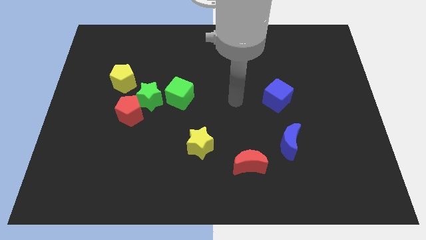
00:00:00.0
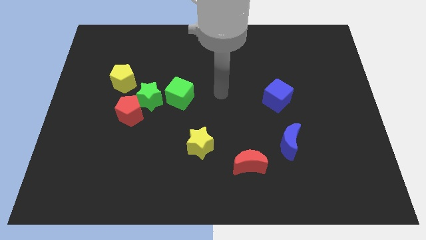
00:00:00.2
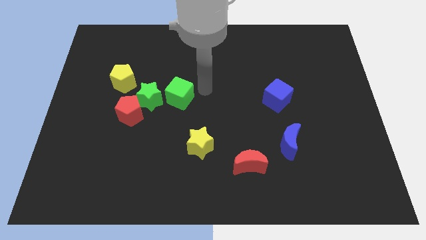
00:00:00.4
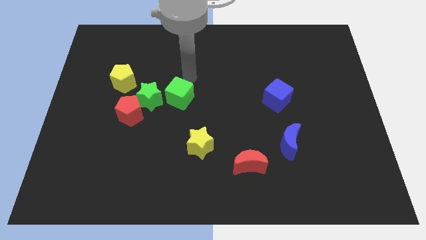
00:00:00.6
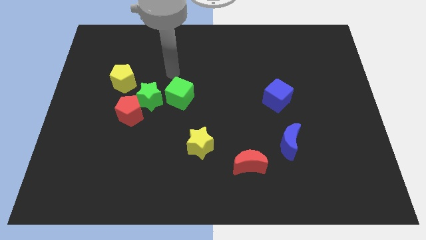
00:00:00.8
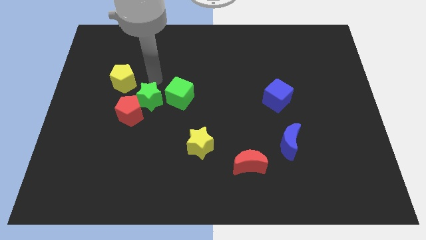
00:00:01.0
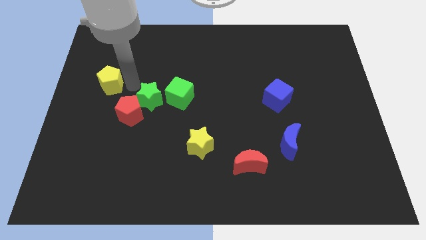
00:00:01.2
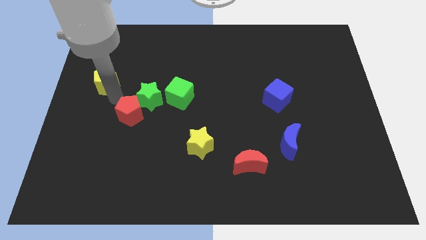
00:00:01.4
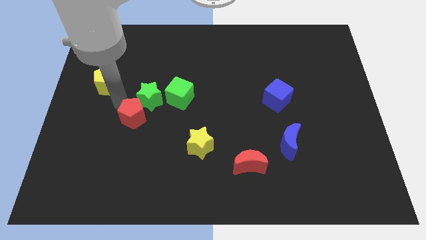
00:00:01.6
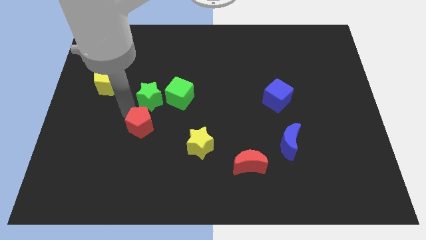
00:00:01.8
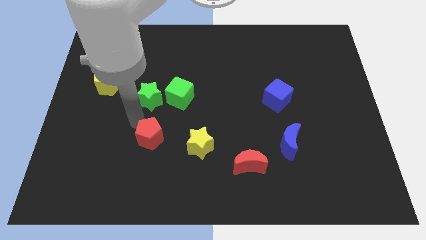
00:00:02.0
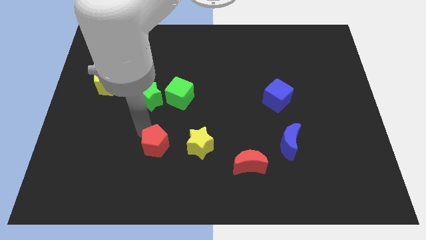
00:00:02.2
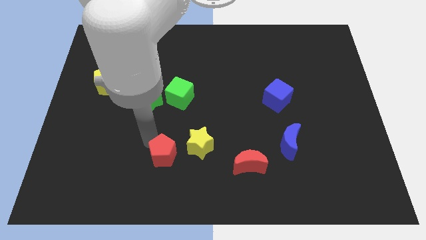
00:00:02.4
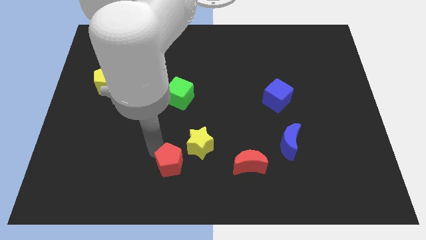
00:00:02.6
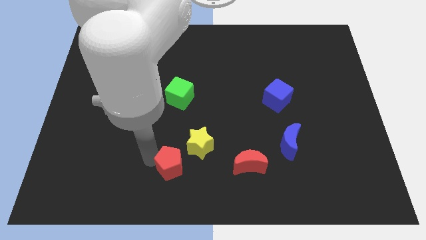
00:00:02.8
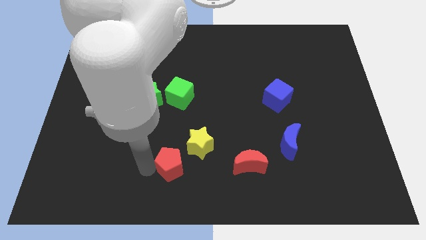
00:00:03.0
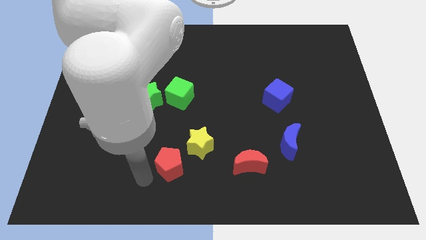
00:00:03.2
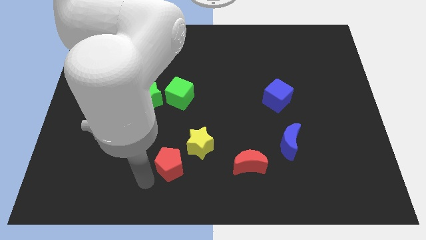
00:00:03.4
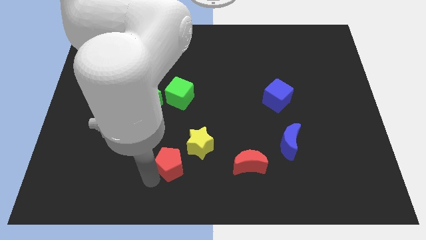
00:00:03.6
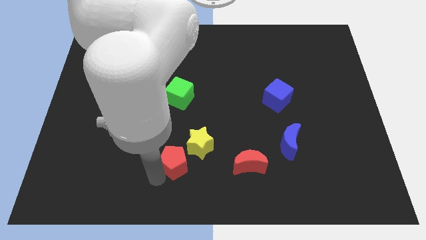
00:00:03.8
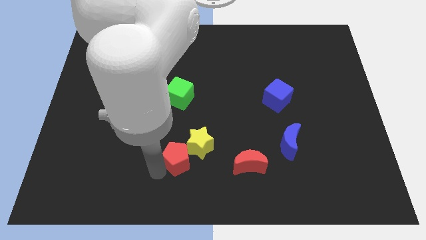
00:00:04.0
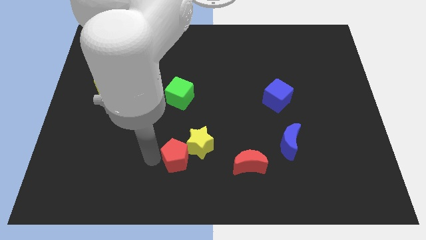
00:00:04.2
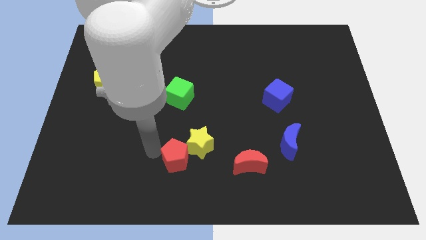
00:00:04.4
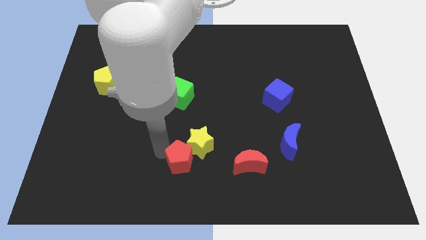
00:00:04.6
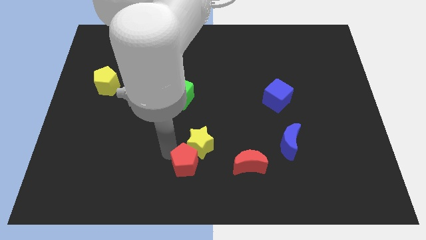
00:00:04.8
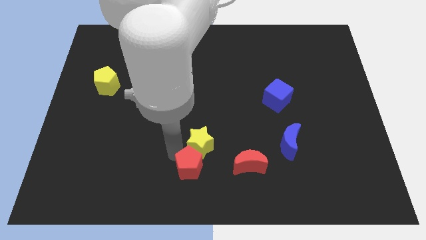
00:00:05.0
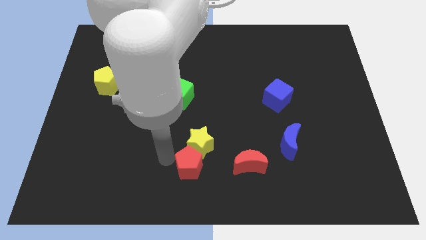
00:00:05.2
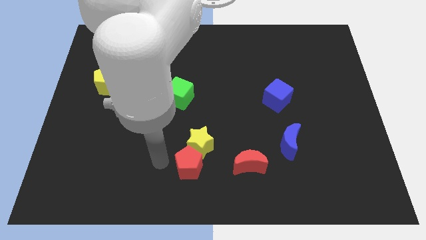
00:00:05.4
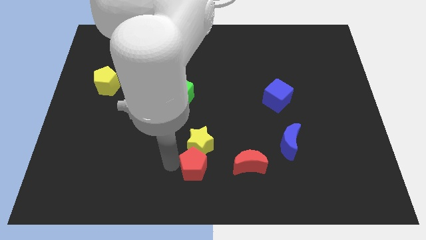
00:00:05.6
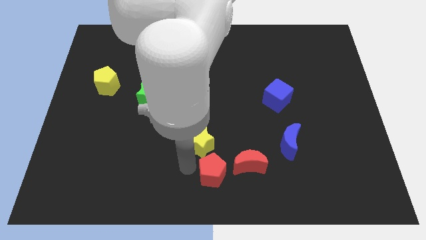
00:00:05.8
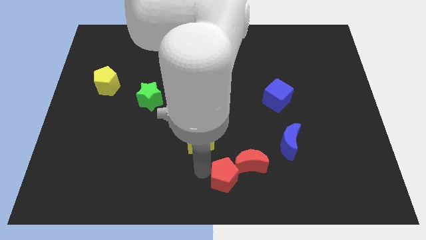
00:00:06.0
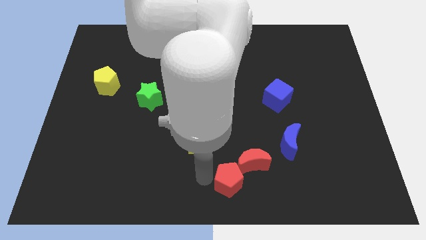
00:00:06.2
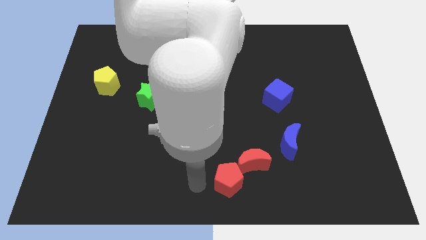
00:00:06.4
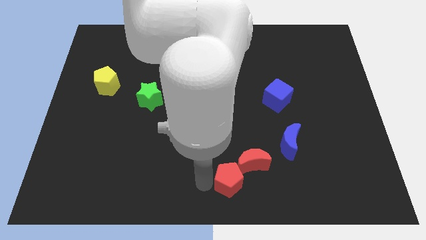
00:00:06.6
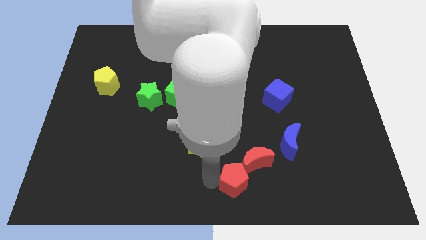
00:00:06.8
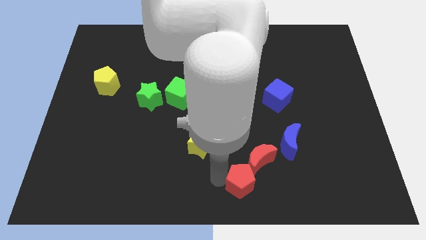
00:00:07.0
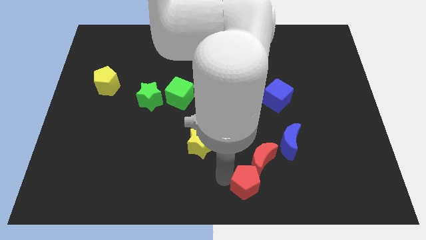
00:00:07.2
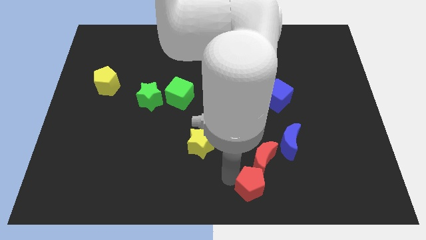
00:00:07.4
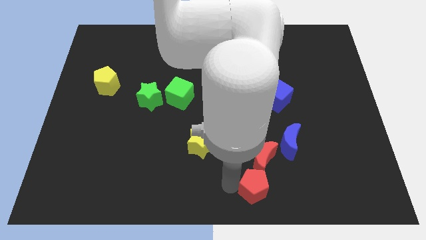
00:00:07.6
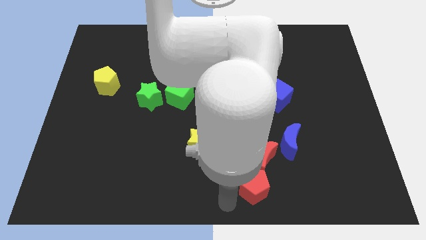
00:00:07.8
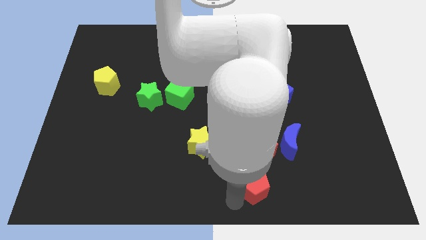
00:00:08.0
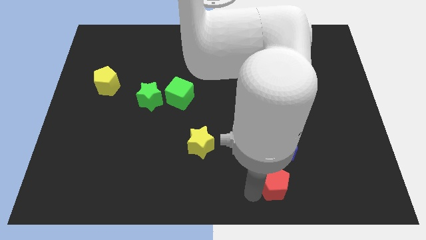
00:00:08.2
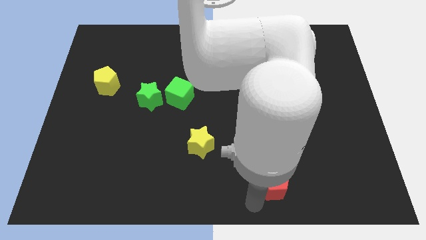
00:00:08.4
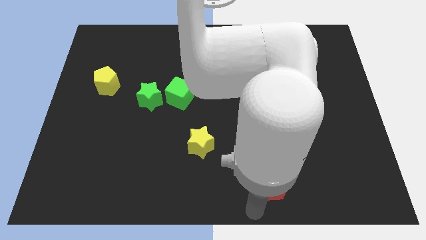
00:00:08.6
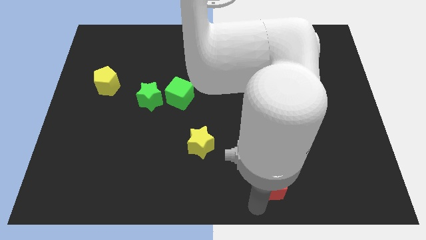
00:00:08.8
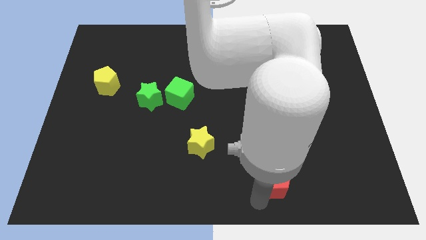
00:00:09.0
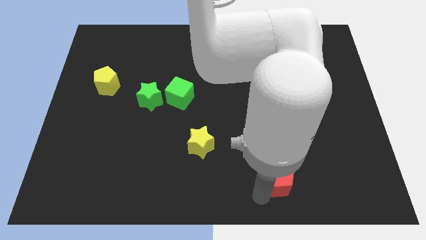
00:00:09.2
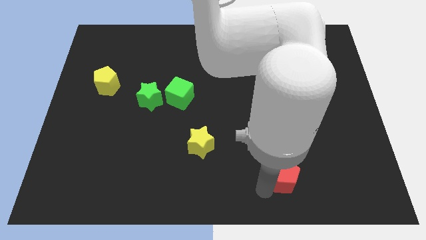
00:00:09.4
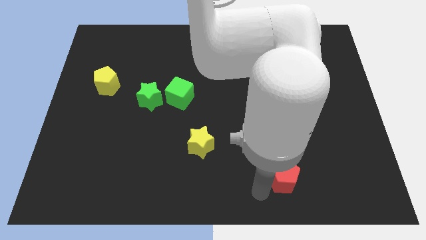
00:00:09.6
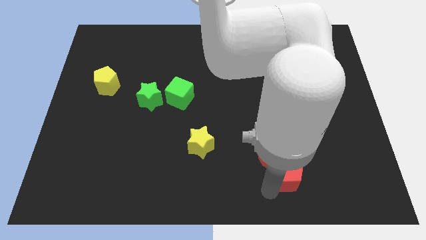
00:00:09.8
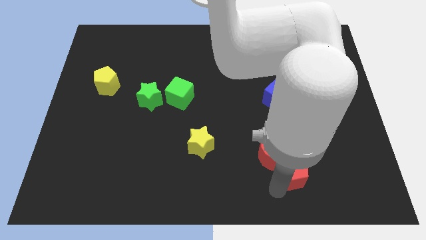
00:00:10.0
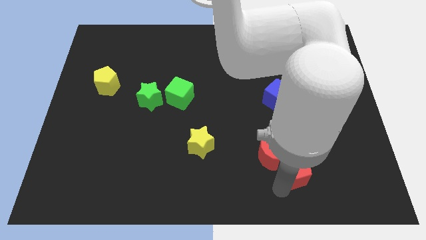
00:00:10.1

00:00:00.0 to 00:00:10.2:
move the red pentagon diagonally down and to the right of the blue moon

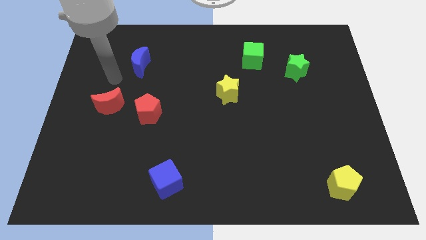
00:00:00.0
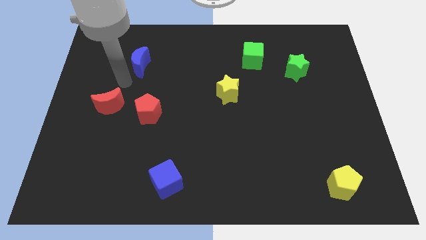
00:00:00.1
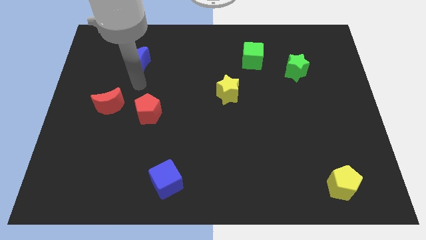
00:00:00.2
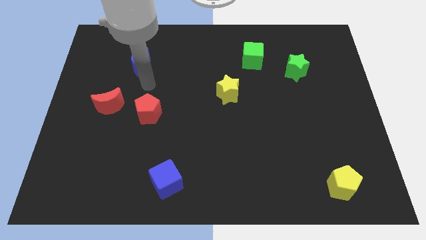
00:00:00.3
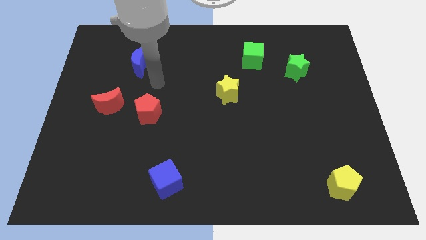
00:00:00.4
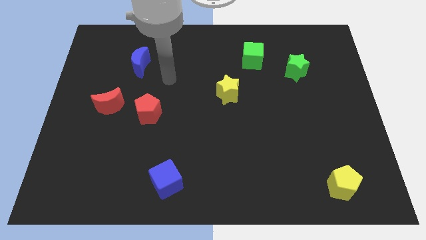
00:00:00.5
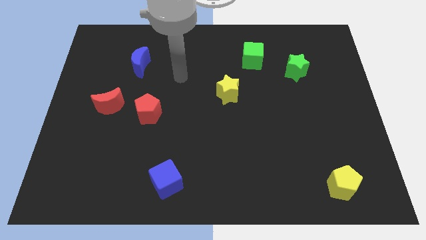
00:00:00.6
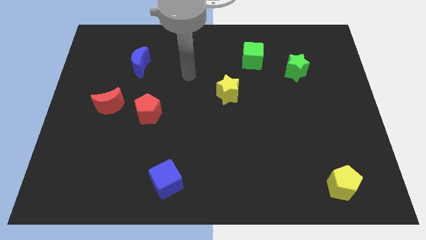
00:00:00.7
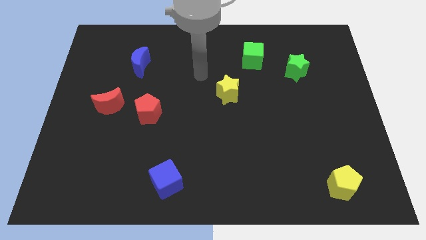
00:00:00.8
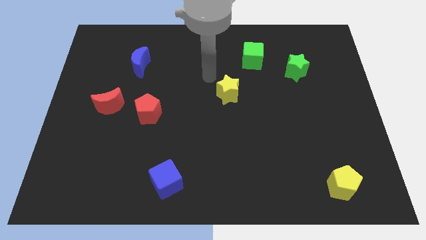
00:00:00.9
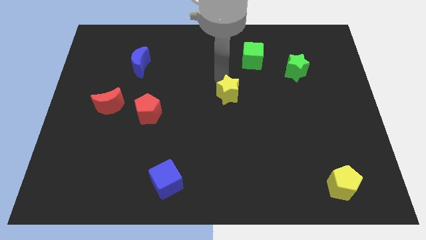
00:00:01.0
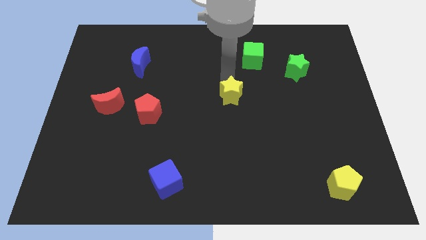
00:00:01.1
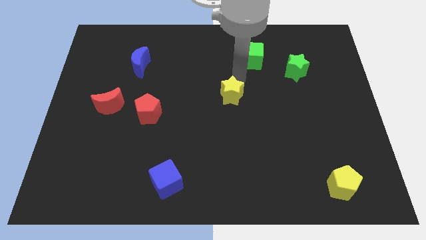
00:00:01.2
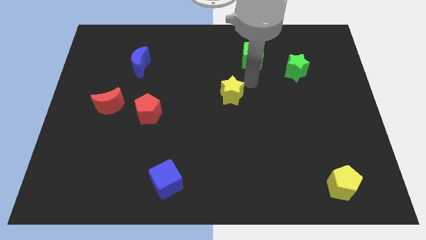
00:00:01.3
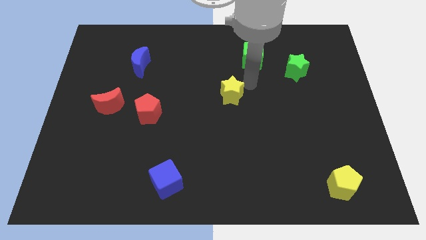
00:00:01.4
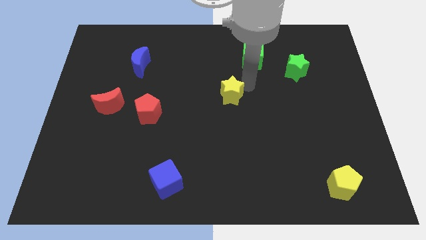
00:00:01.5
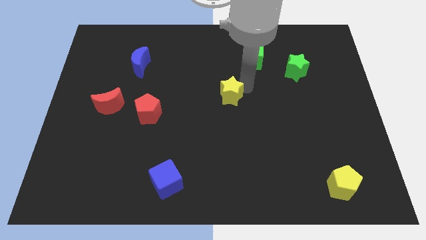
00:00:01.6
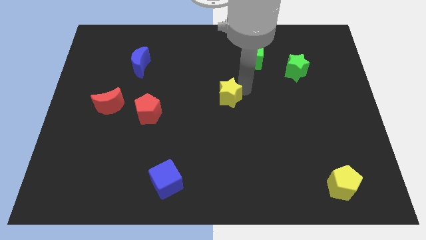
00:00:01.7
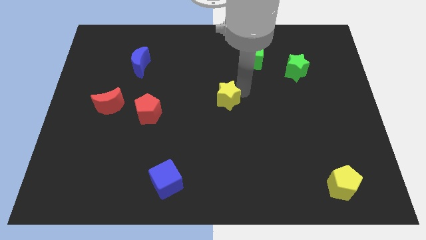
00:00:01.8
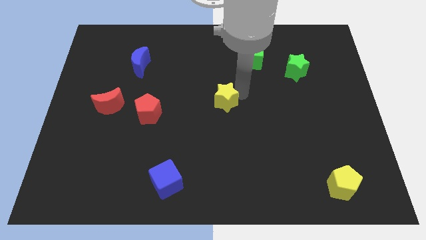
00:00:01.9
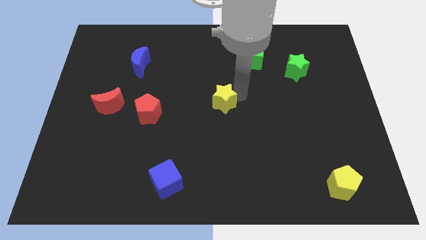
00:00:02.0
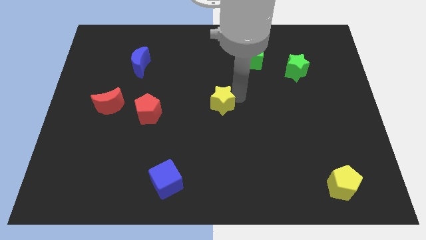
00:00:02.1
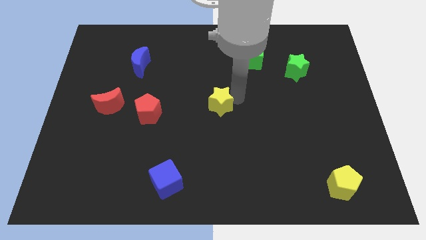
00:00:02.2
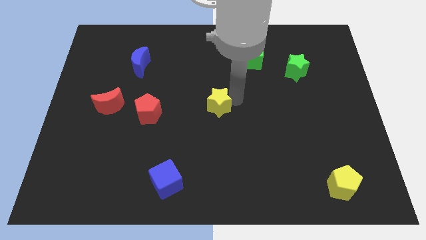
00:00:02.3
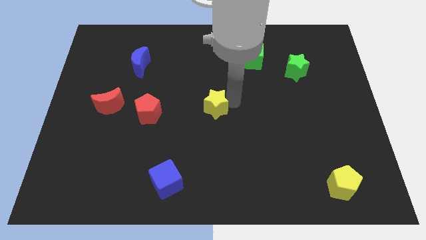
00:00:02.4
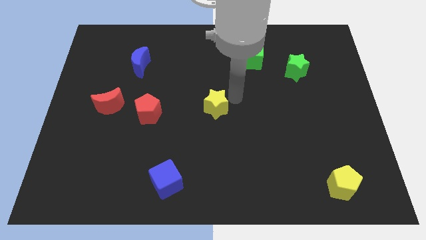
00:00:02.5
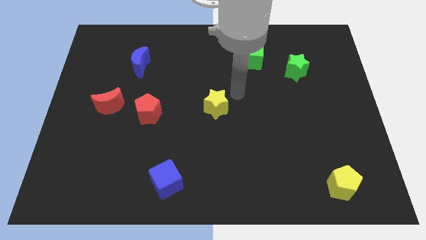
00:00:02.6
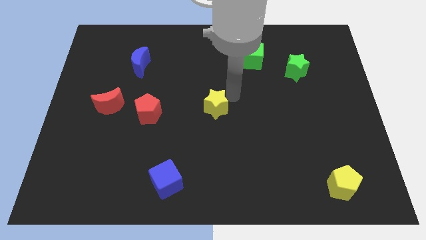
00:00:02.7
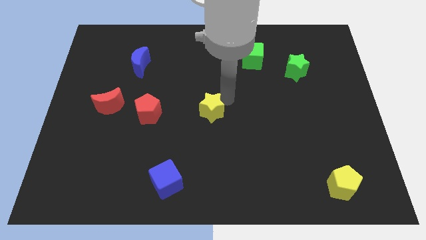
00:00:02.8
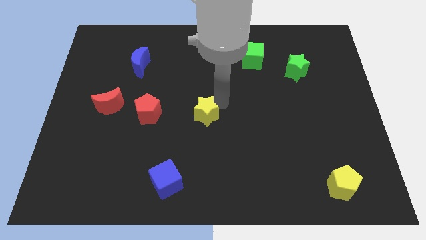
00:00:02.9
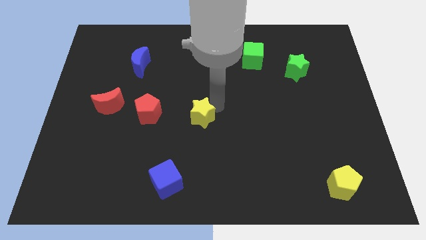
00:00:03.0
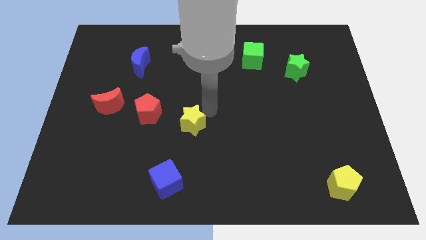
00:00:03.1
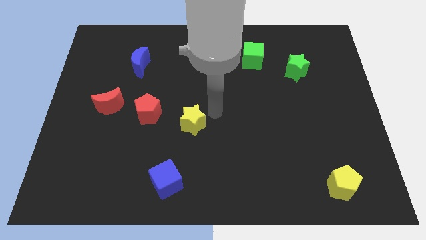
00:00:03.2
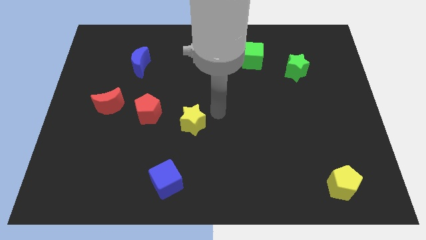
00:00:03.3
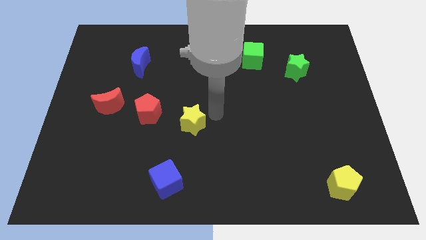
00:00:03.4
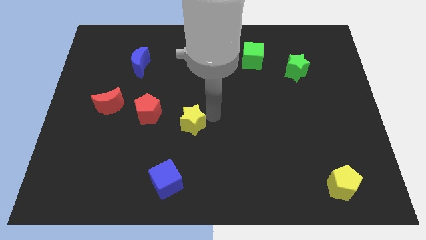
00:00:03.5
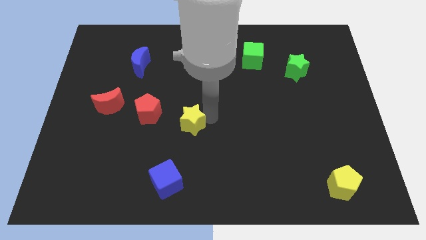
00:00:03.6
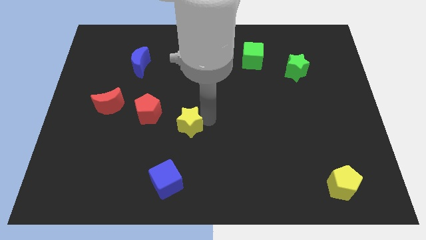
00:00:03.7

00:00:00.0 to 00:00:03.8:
move the yellow star to the bottom right of the red pentagon
